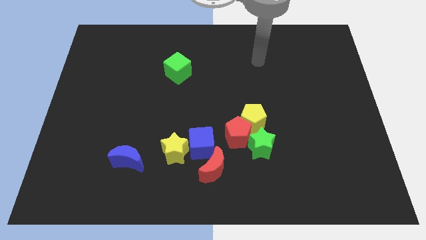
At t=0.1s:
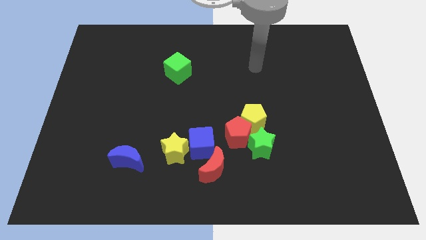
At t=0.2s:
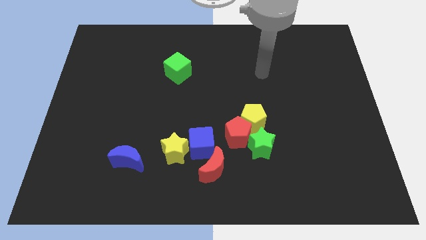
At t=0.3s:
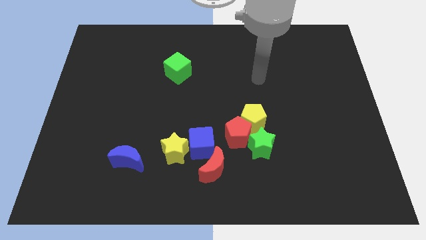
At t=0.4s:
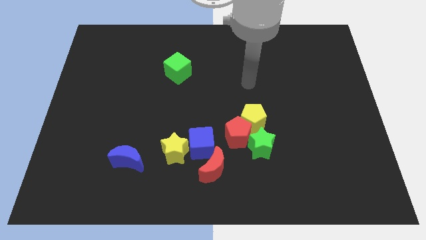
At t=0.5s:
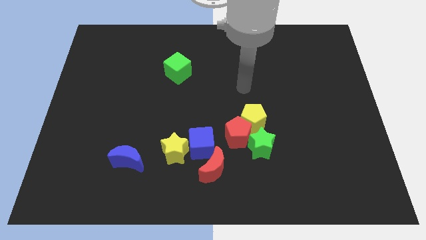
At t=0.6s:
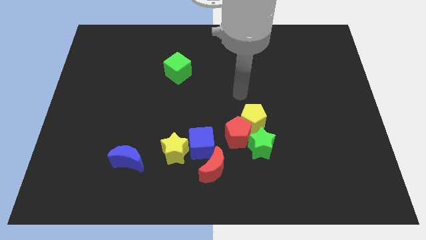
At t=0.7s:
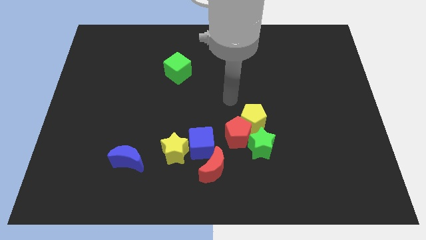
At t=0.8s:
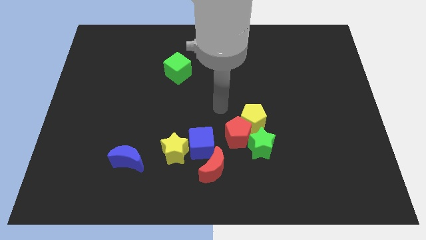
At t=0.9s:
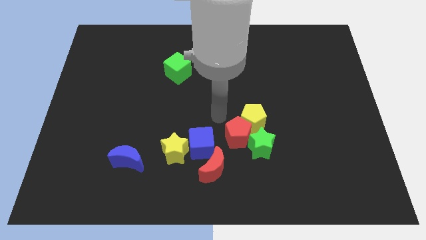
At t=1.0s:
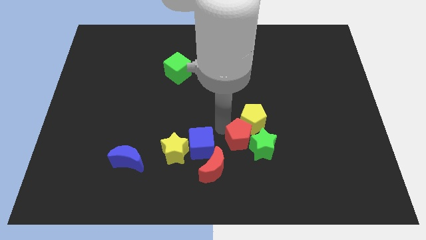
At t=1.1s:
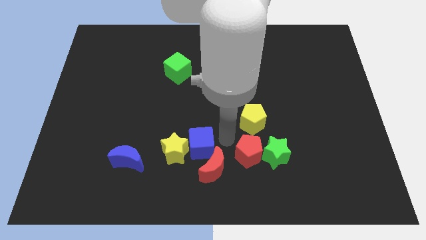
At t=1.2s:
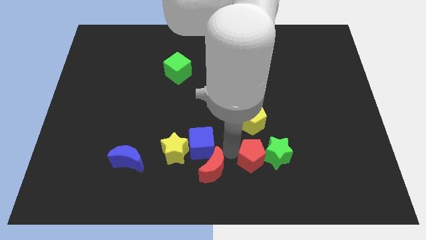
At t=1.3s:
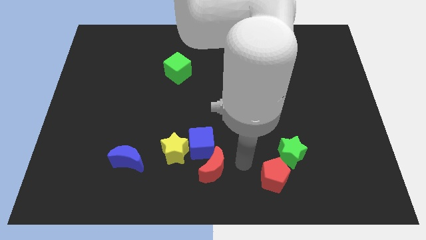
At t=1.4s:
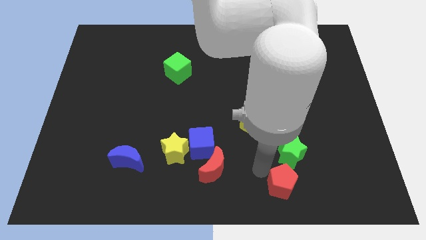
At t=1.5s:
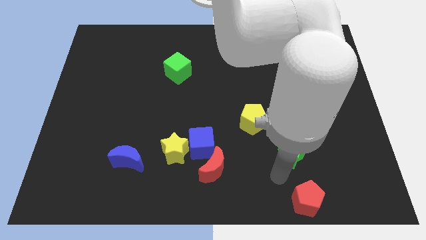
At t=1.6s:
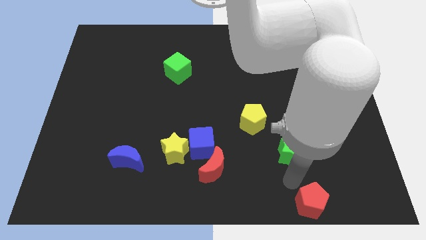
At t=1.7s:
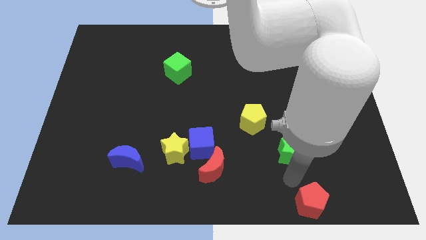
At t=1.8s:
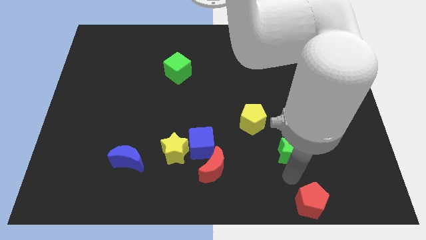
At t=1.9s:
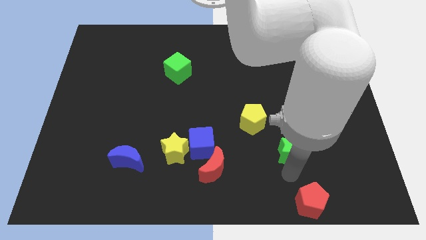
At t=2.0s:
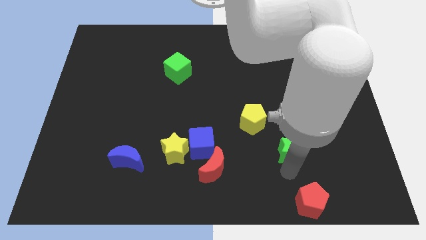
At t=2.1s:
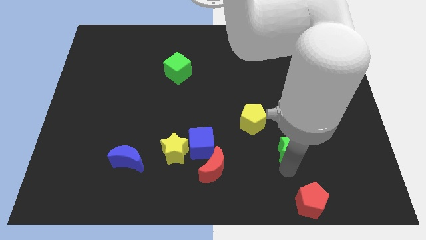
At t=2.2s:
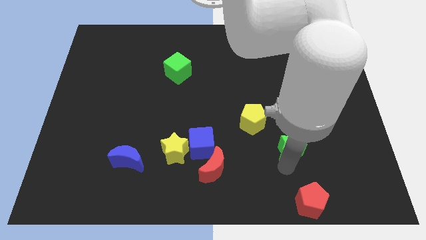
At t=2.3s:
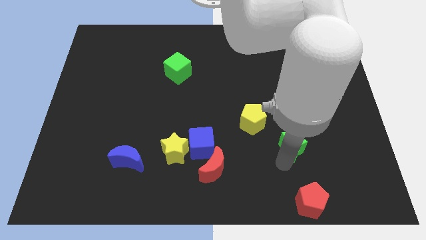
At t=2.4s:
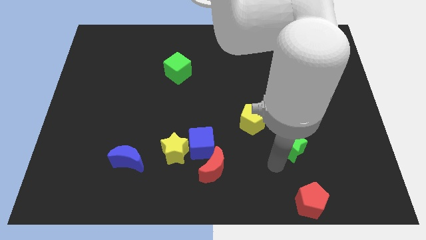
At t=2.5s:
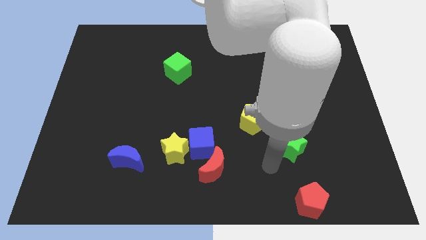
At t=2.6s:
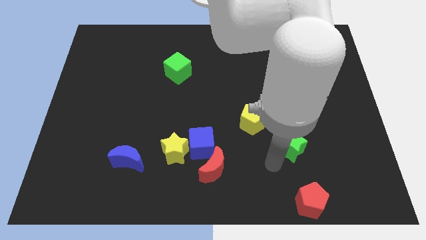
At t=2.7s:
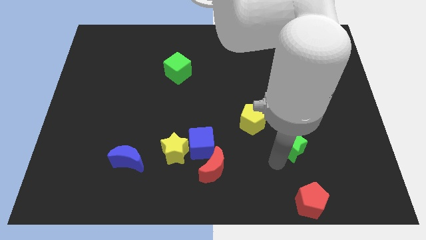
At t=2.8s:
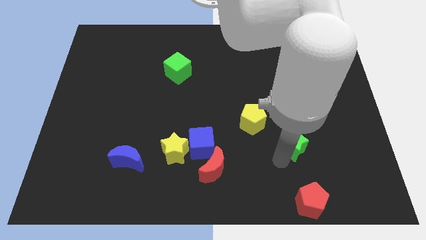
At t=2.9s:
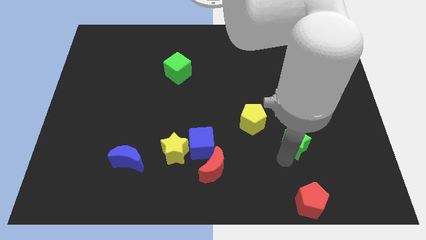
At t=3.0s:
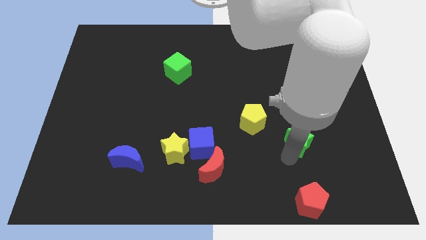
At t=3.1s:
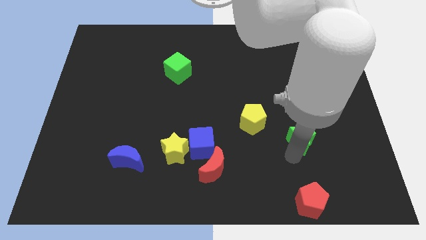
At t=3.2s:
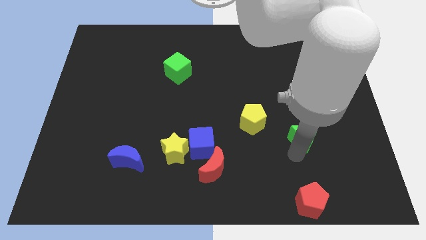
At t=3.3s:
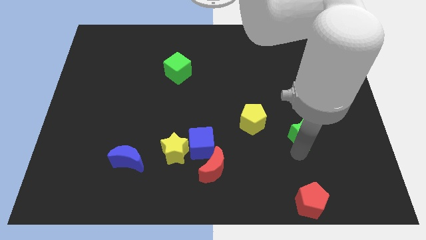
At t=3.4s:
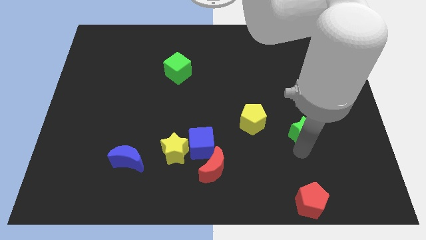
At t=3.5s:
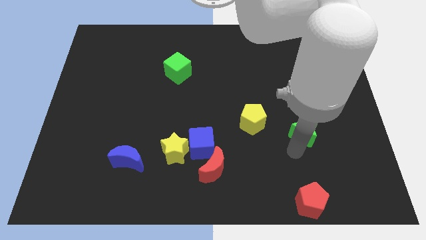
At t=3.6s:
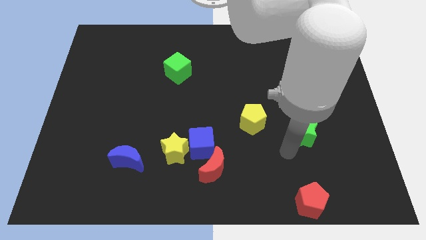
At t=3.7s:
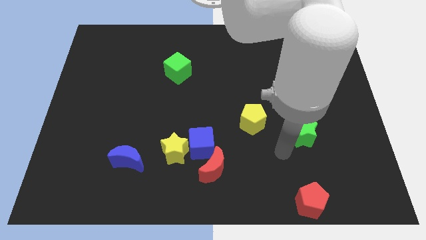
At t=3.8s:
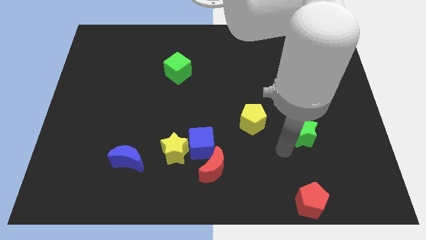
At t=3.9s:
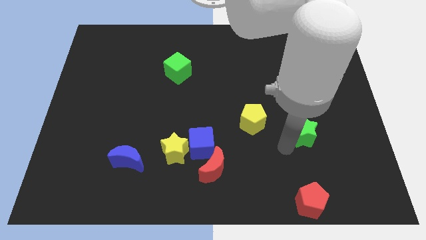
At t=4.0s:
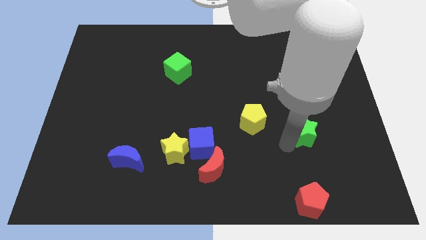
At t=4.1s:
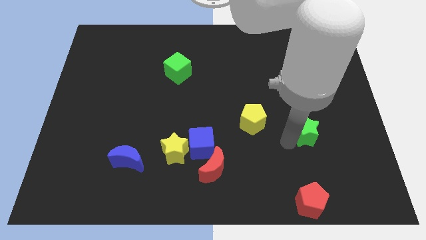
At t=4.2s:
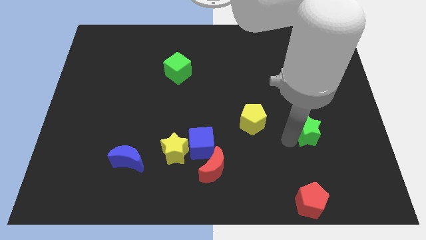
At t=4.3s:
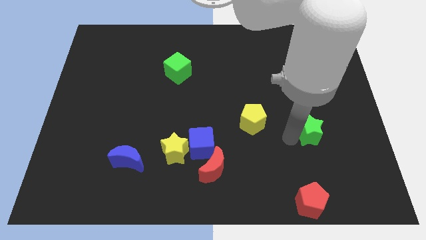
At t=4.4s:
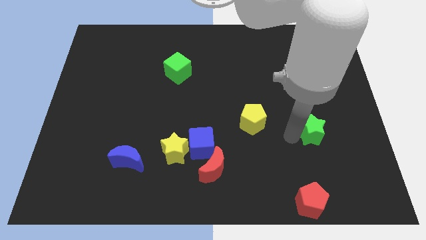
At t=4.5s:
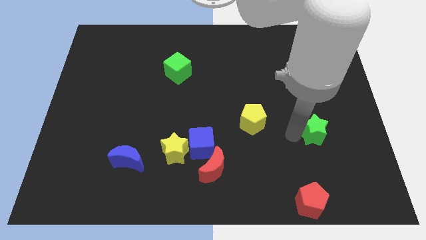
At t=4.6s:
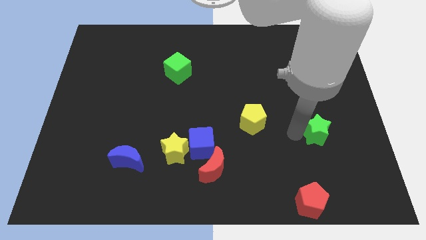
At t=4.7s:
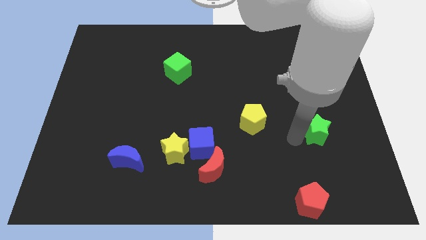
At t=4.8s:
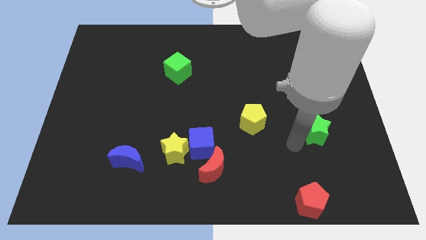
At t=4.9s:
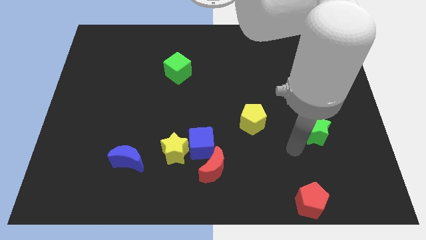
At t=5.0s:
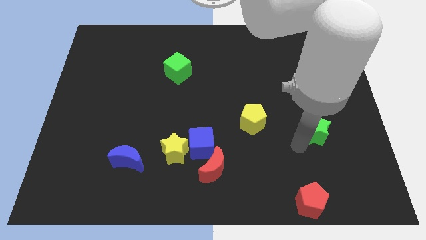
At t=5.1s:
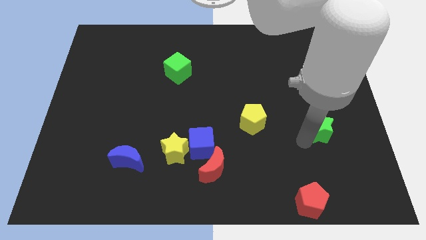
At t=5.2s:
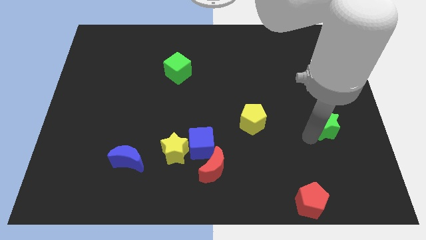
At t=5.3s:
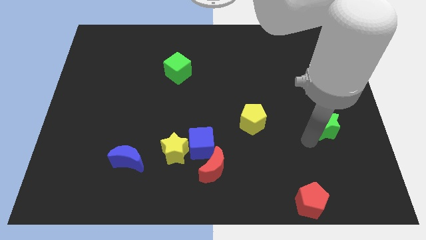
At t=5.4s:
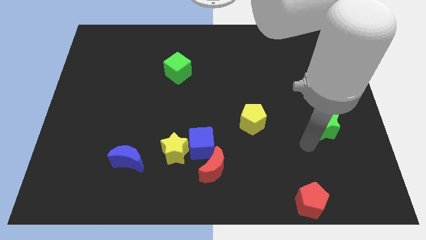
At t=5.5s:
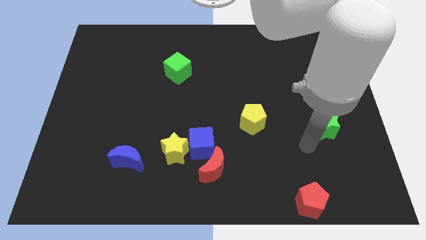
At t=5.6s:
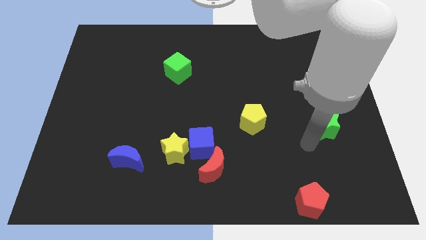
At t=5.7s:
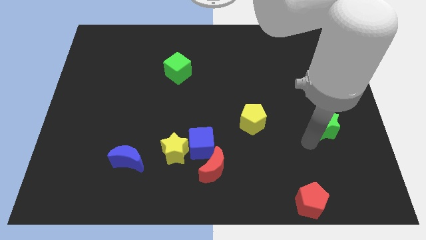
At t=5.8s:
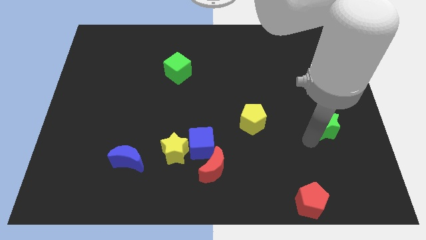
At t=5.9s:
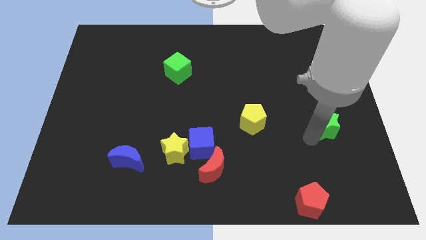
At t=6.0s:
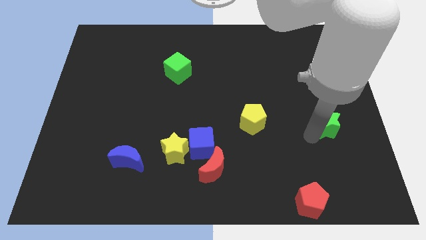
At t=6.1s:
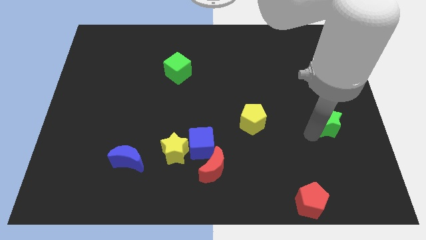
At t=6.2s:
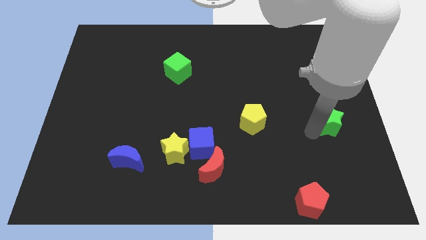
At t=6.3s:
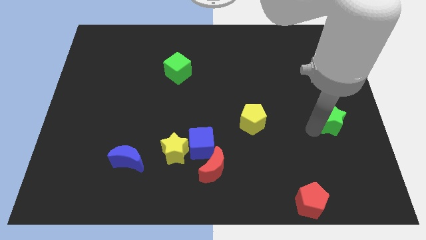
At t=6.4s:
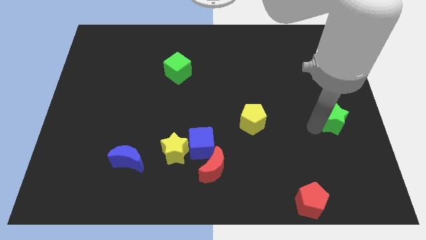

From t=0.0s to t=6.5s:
put the green star to the right side

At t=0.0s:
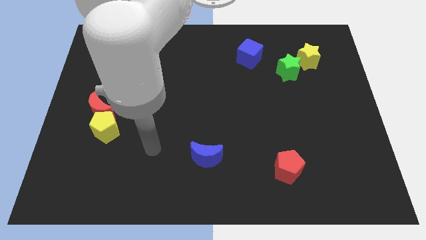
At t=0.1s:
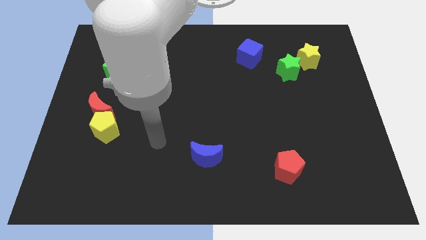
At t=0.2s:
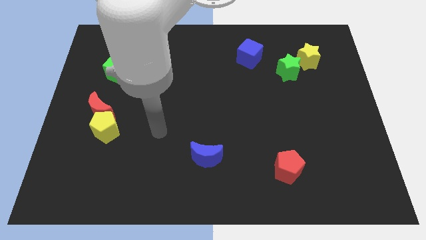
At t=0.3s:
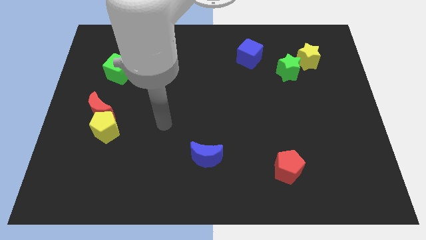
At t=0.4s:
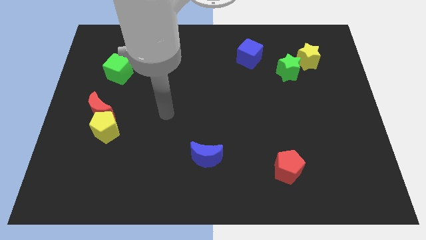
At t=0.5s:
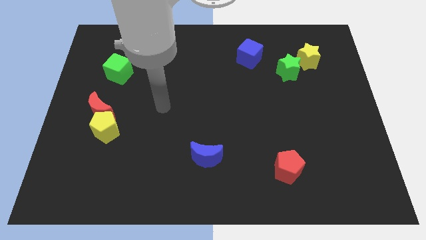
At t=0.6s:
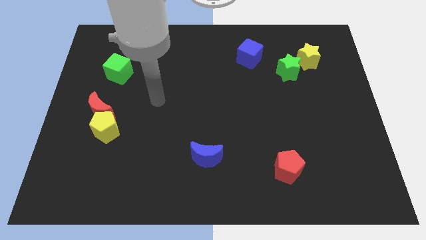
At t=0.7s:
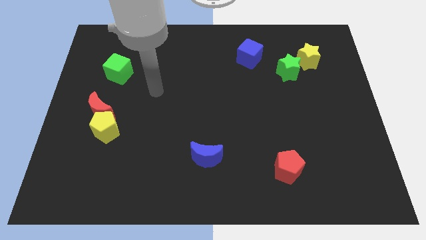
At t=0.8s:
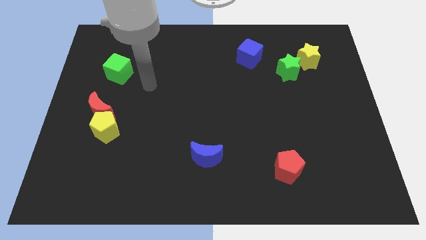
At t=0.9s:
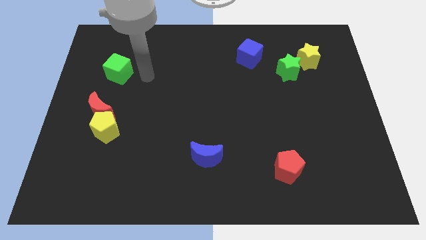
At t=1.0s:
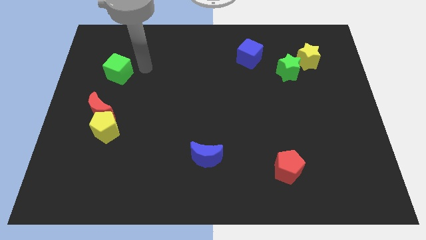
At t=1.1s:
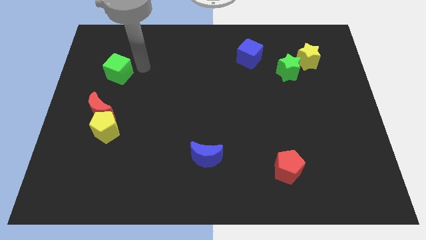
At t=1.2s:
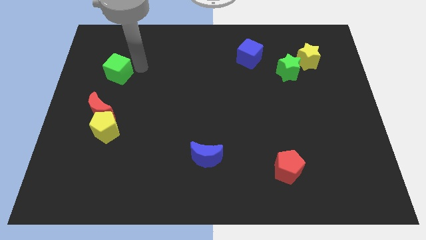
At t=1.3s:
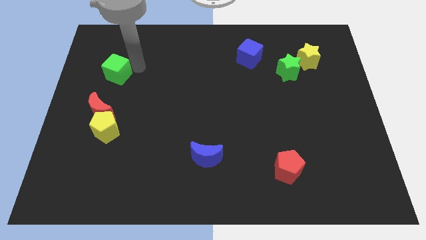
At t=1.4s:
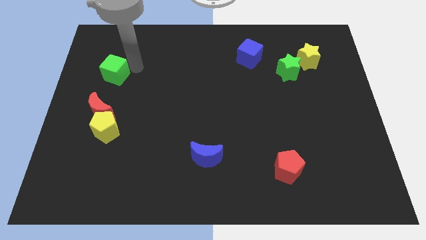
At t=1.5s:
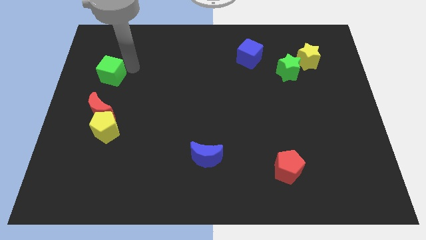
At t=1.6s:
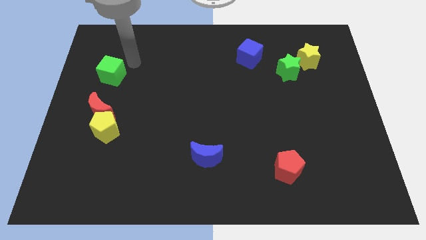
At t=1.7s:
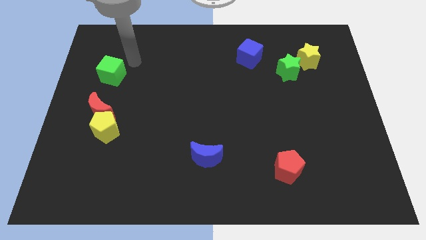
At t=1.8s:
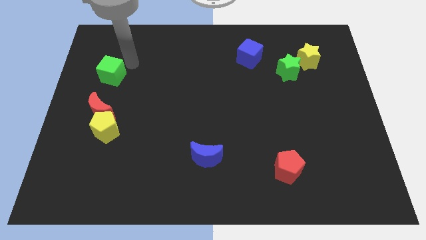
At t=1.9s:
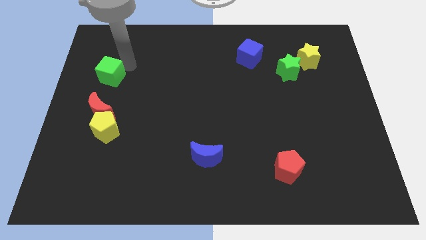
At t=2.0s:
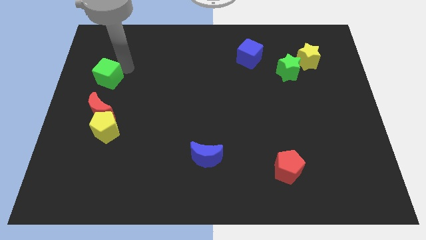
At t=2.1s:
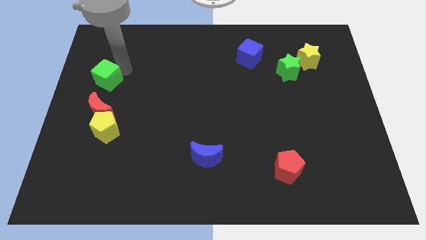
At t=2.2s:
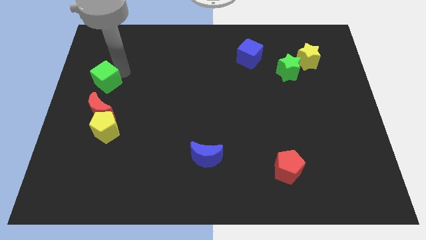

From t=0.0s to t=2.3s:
put the green cube to the center left
